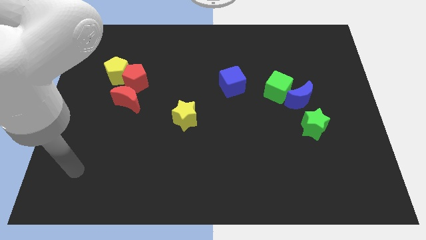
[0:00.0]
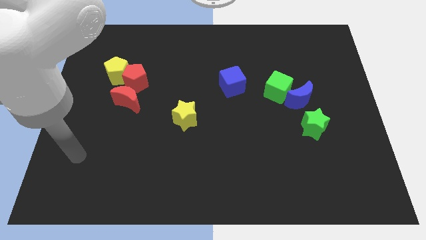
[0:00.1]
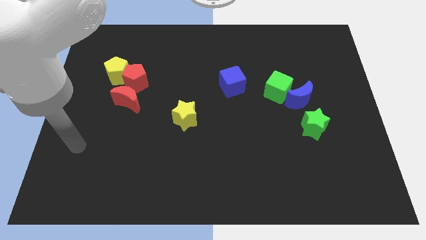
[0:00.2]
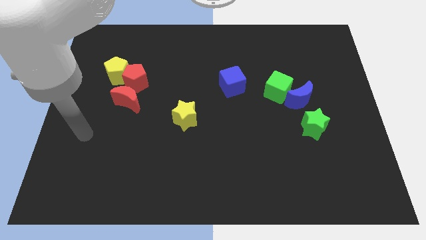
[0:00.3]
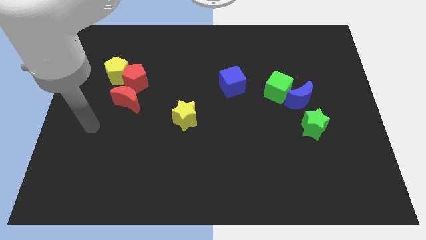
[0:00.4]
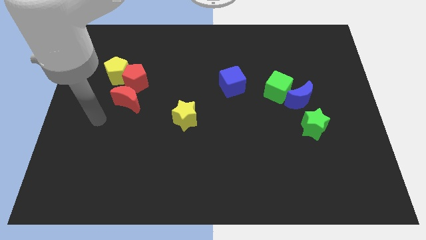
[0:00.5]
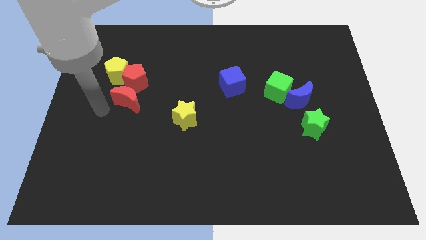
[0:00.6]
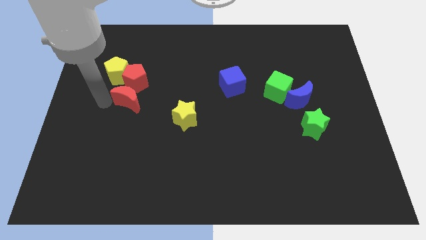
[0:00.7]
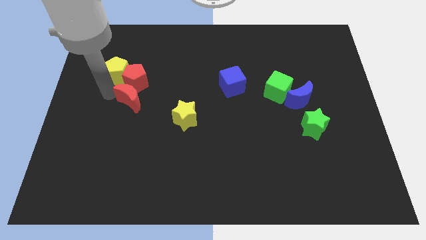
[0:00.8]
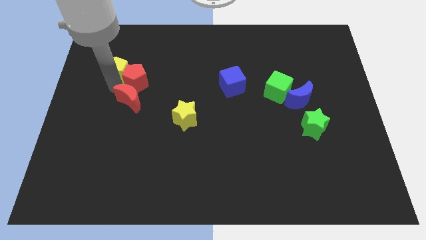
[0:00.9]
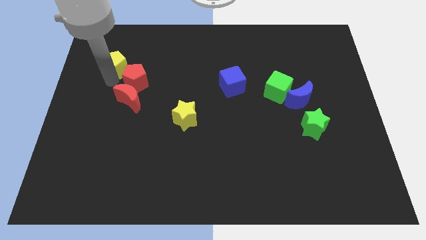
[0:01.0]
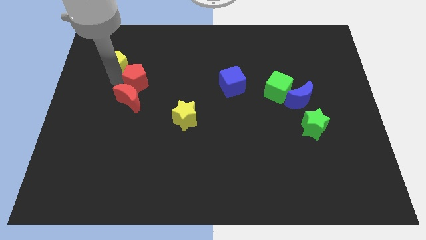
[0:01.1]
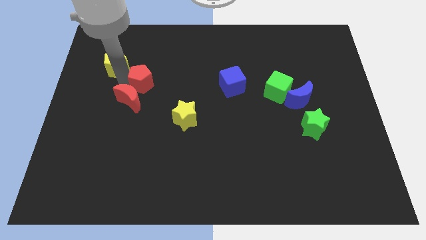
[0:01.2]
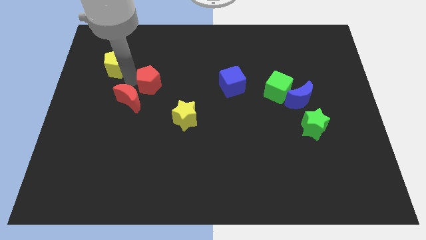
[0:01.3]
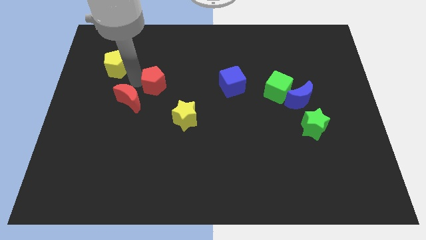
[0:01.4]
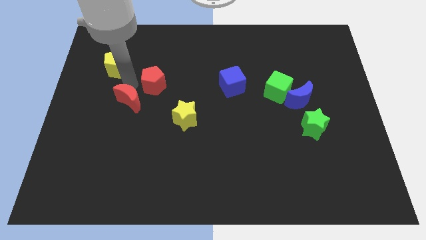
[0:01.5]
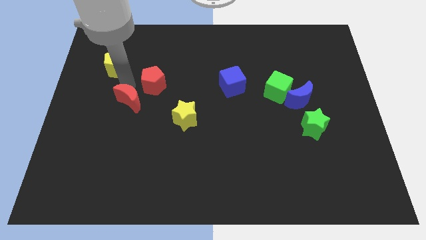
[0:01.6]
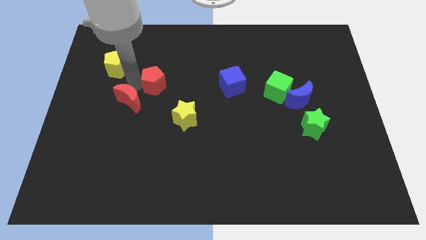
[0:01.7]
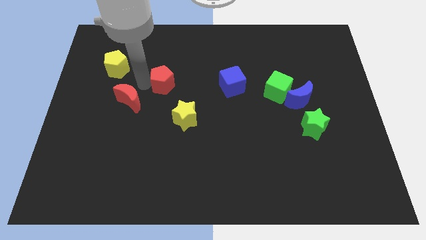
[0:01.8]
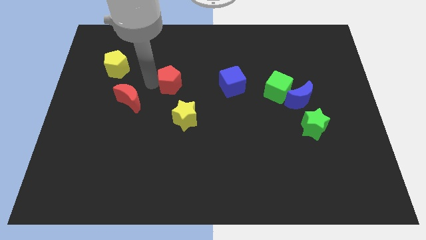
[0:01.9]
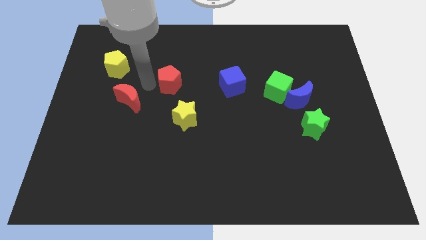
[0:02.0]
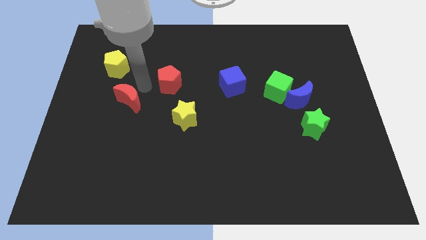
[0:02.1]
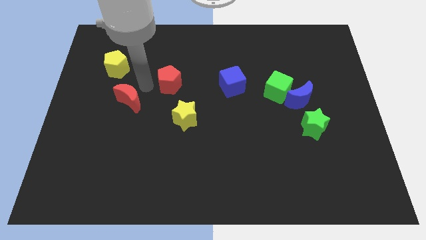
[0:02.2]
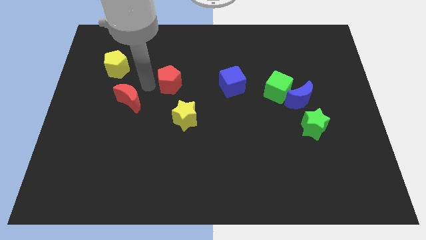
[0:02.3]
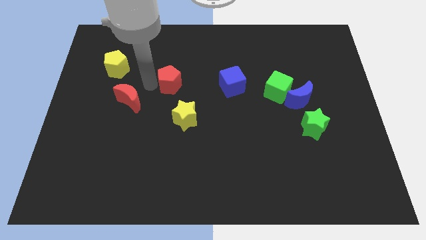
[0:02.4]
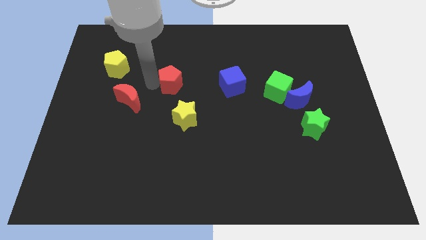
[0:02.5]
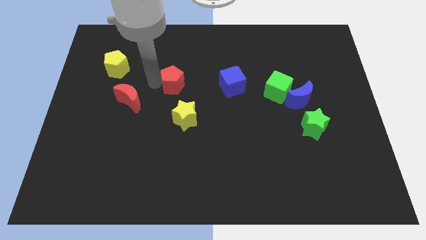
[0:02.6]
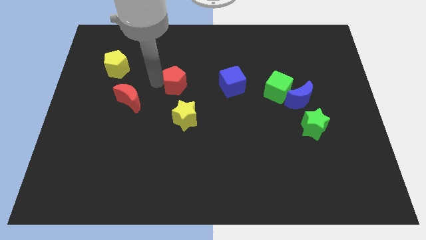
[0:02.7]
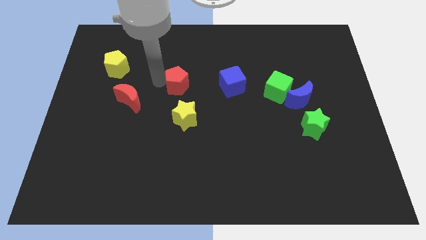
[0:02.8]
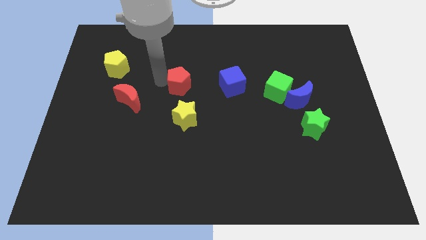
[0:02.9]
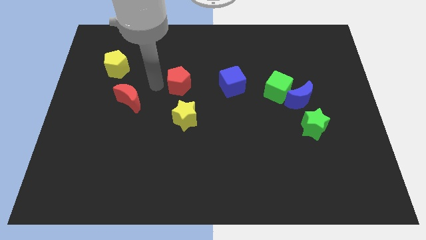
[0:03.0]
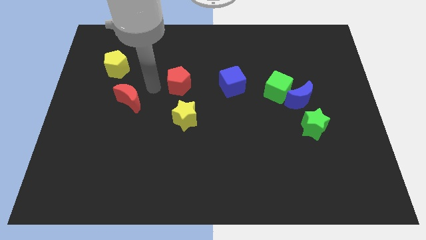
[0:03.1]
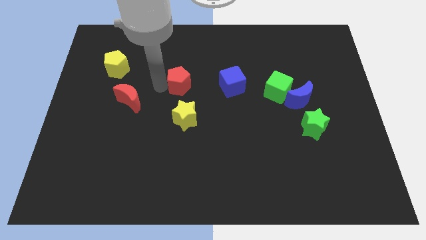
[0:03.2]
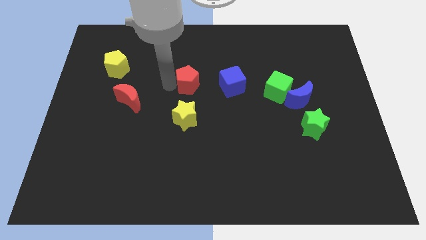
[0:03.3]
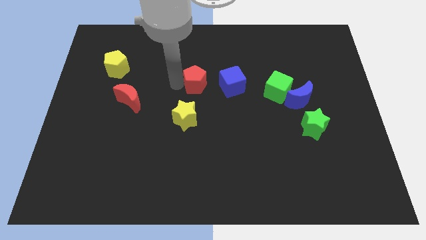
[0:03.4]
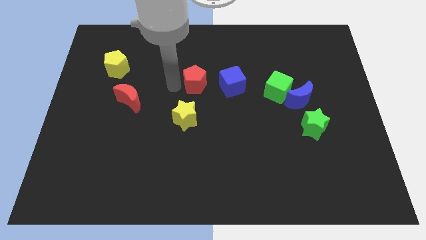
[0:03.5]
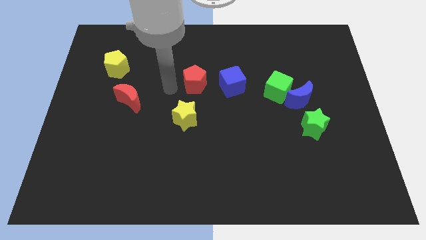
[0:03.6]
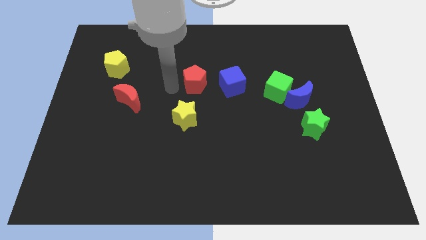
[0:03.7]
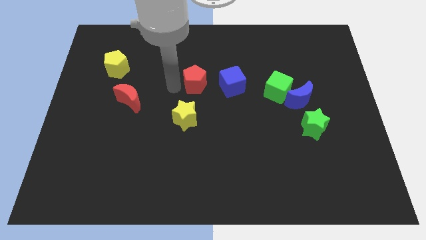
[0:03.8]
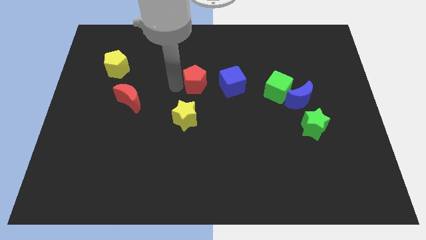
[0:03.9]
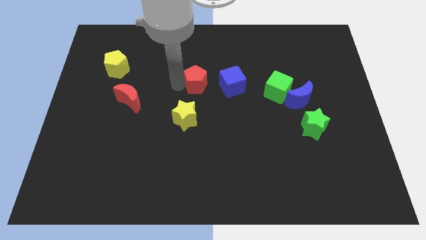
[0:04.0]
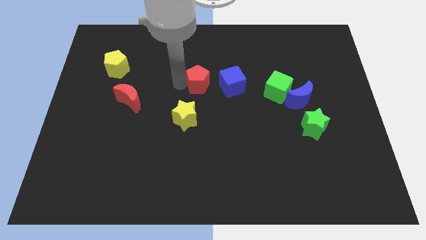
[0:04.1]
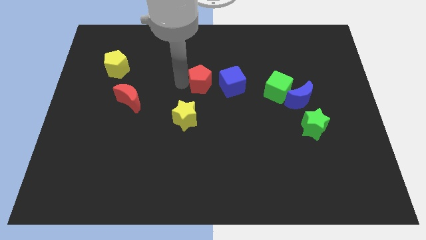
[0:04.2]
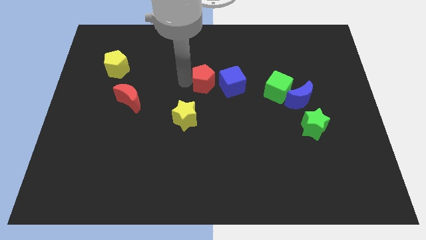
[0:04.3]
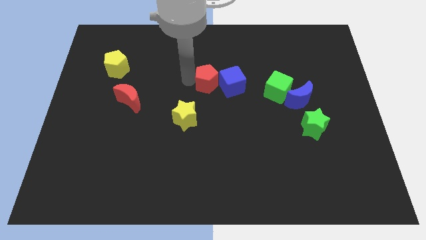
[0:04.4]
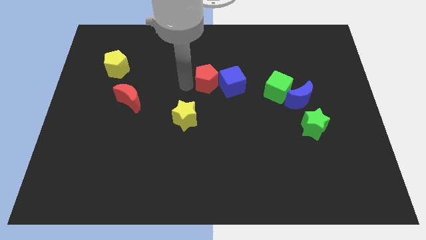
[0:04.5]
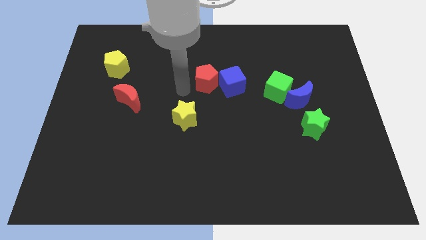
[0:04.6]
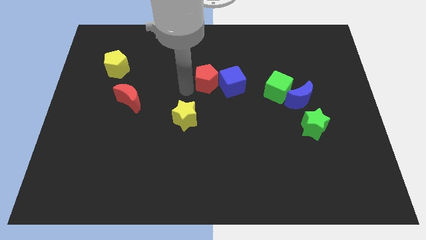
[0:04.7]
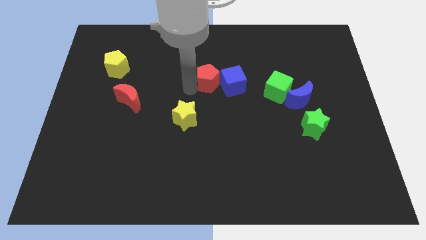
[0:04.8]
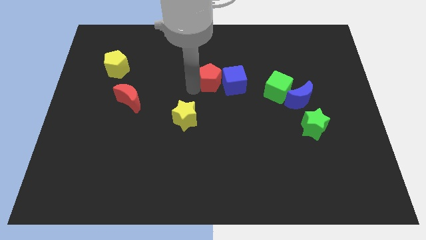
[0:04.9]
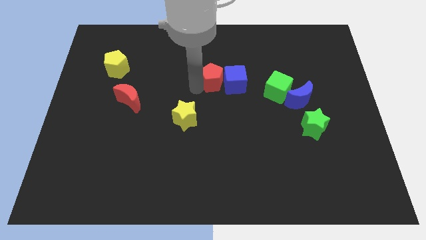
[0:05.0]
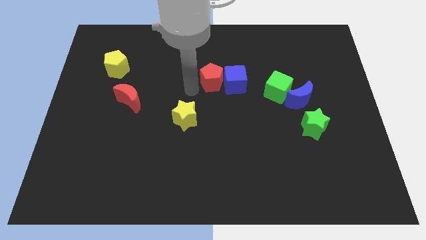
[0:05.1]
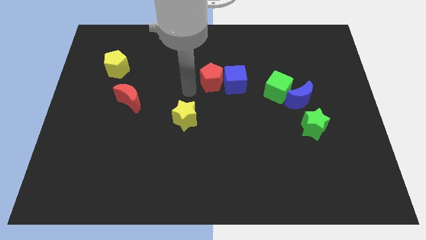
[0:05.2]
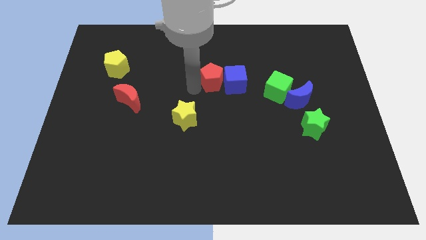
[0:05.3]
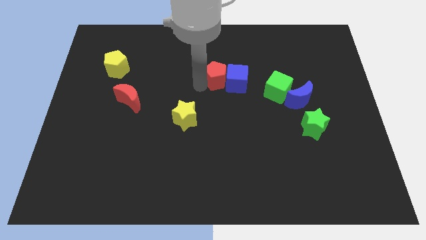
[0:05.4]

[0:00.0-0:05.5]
slide the red pentagon to the right

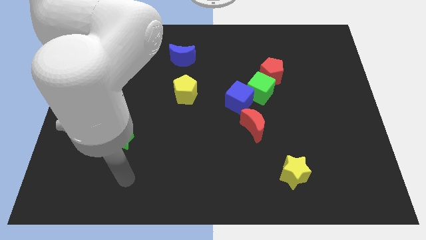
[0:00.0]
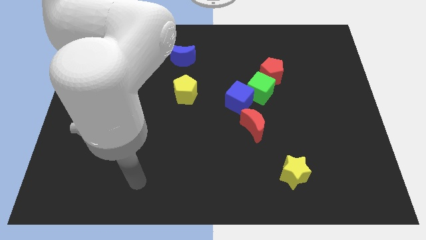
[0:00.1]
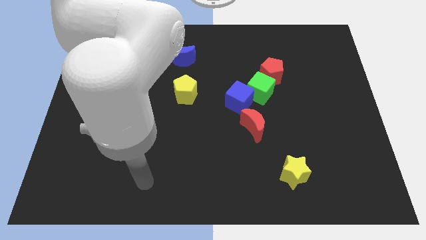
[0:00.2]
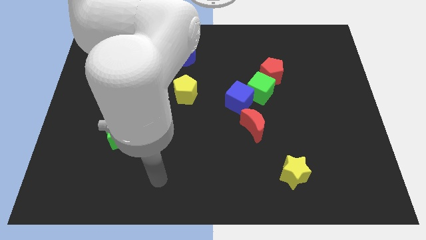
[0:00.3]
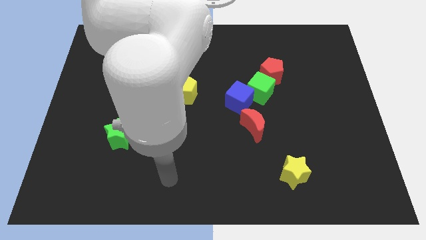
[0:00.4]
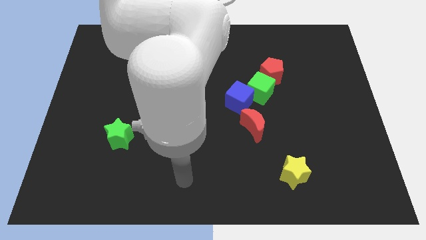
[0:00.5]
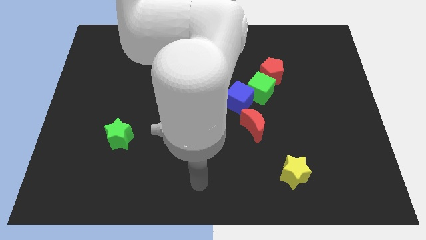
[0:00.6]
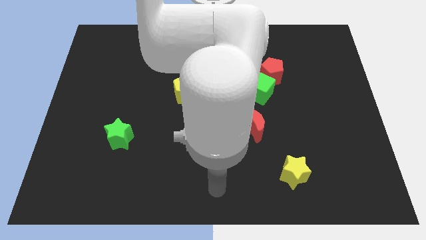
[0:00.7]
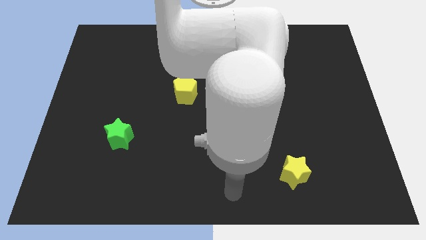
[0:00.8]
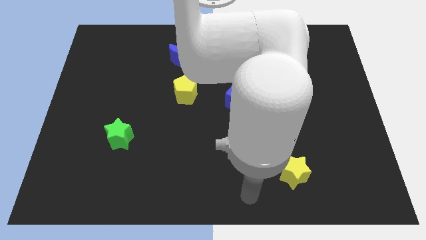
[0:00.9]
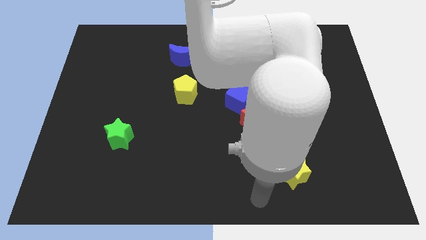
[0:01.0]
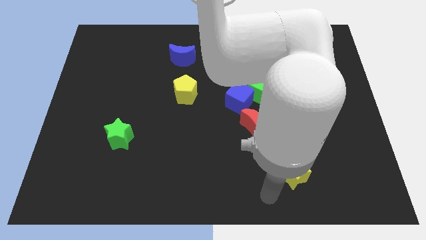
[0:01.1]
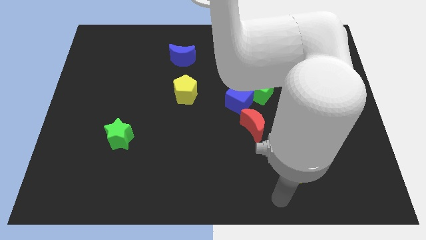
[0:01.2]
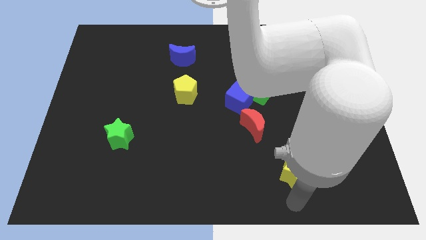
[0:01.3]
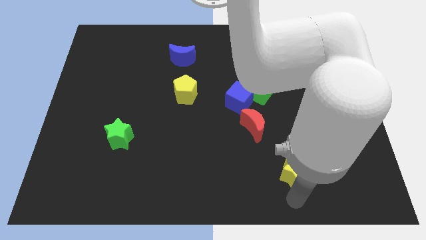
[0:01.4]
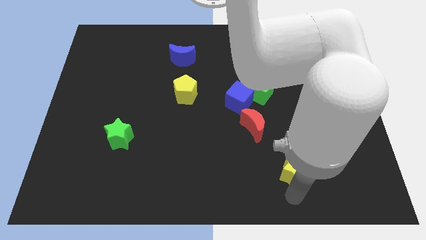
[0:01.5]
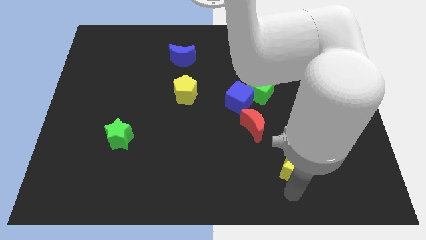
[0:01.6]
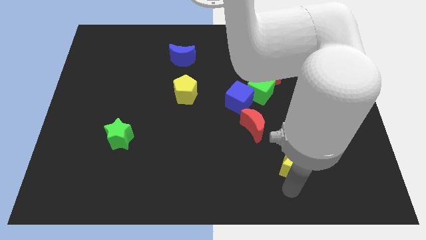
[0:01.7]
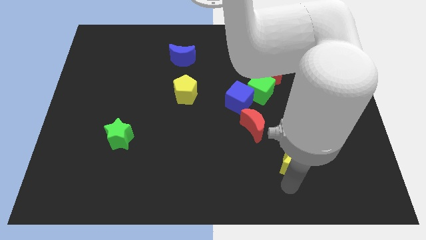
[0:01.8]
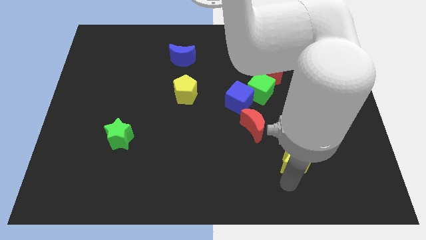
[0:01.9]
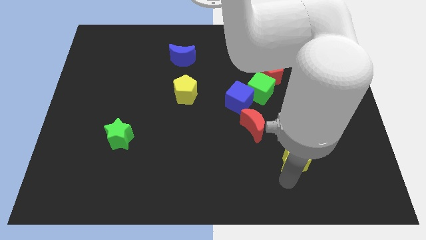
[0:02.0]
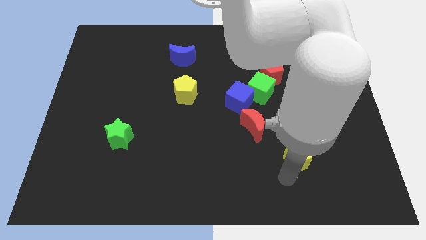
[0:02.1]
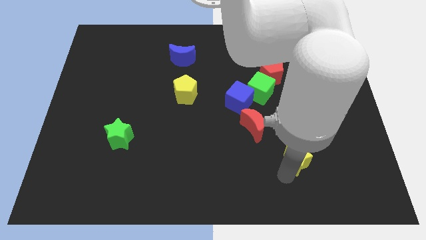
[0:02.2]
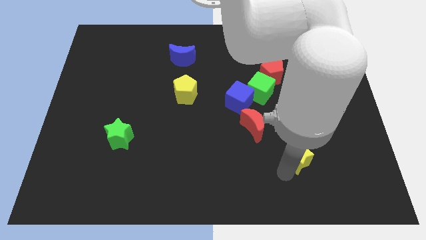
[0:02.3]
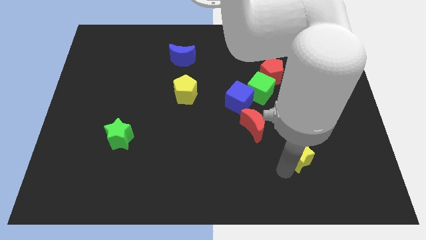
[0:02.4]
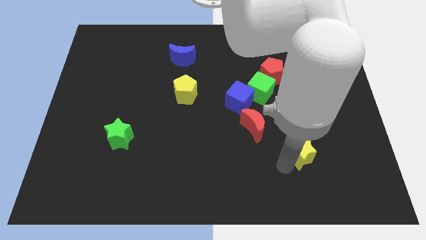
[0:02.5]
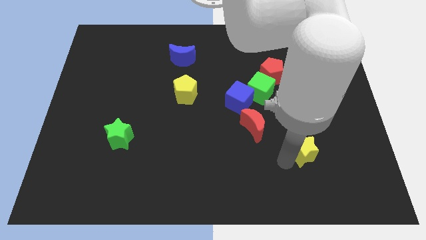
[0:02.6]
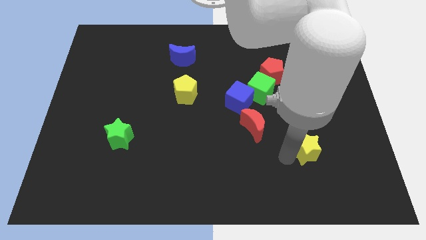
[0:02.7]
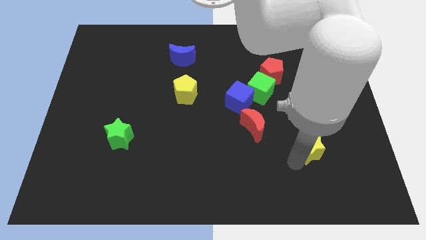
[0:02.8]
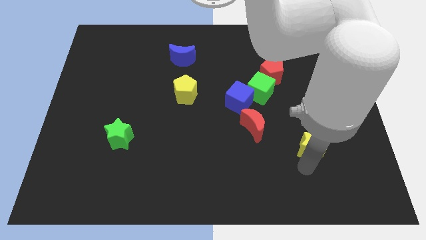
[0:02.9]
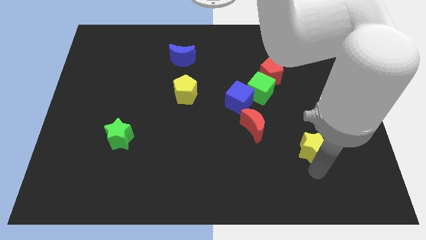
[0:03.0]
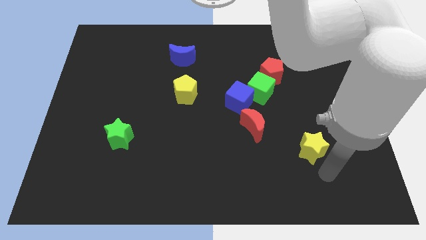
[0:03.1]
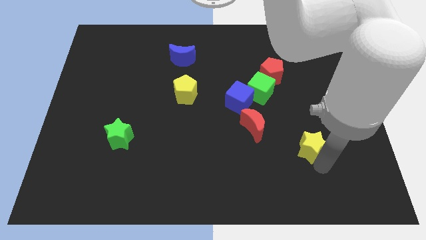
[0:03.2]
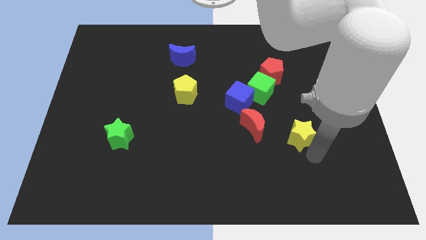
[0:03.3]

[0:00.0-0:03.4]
slide the yellow star slightly upwards
